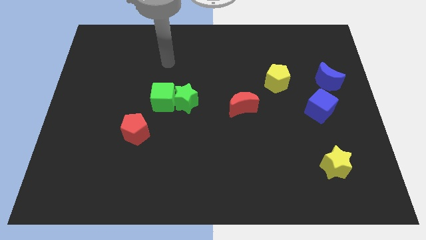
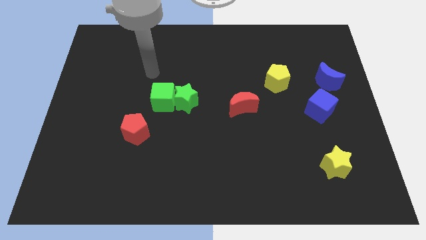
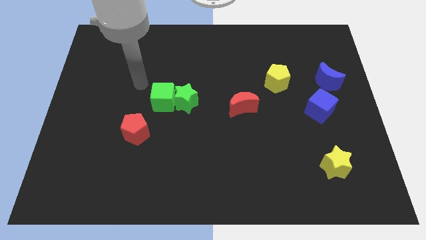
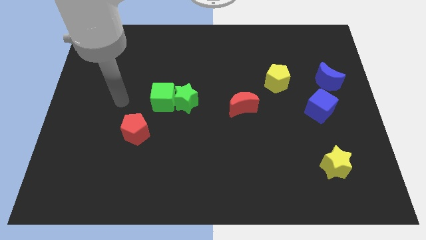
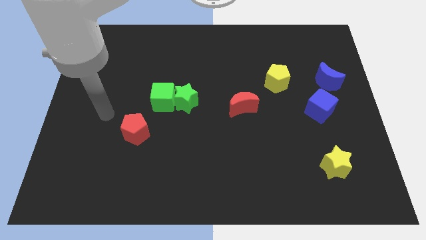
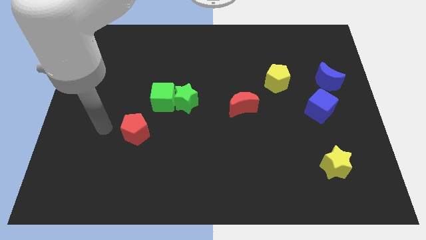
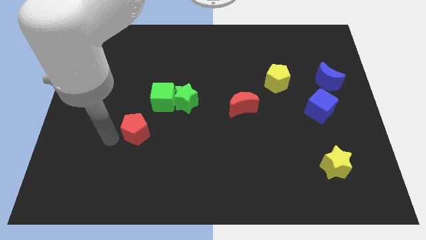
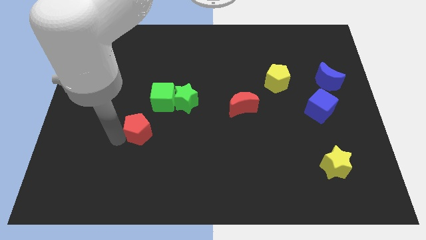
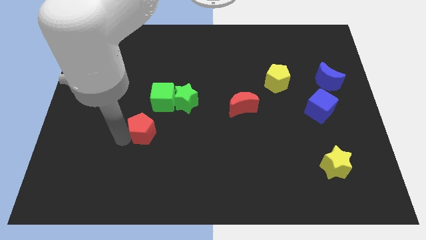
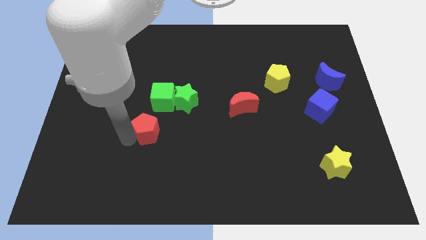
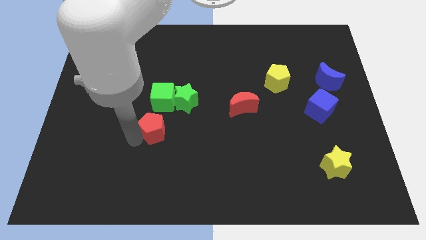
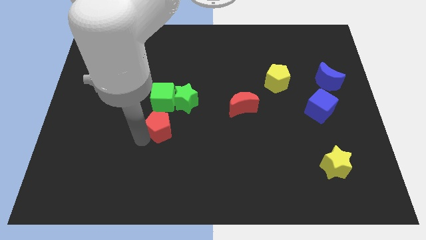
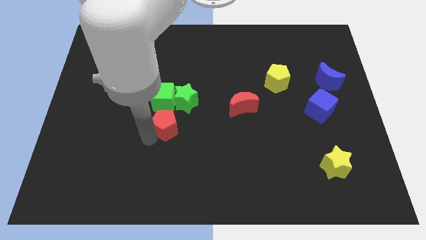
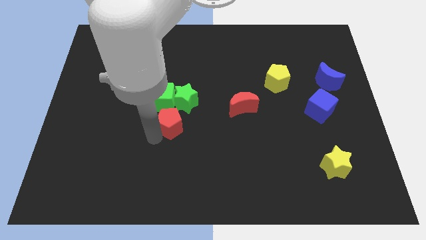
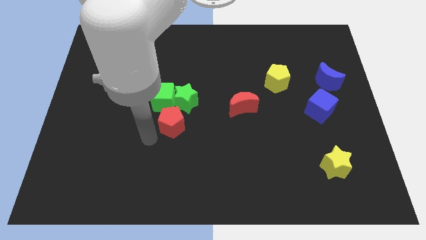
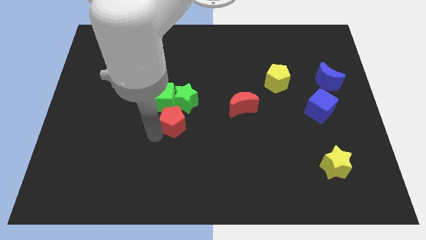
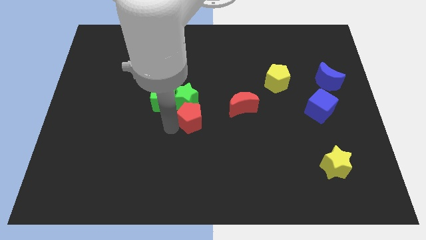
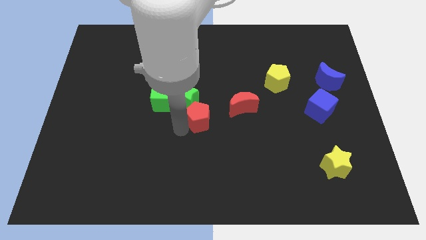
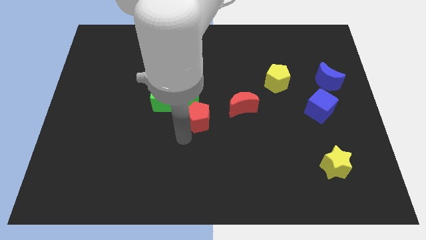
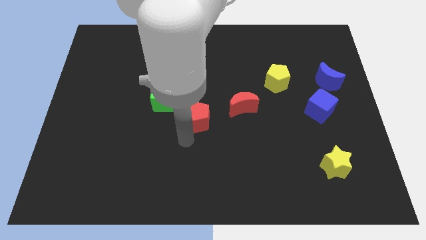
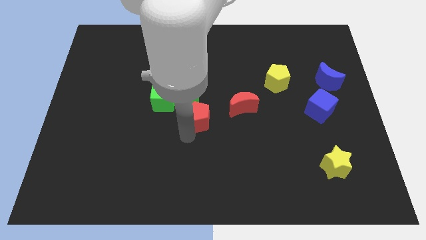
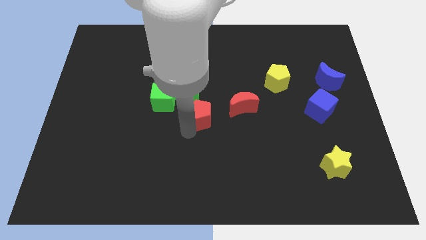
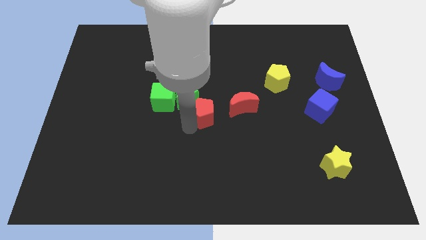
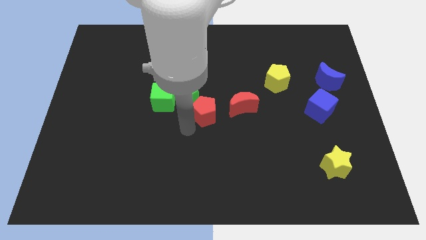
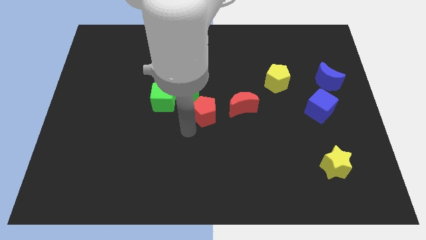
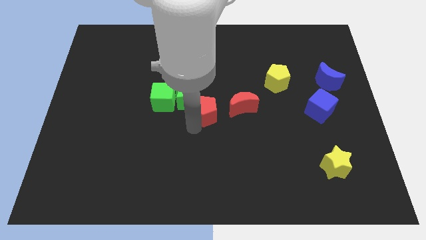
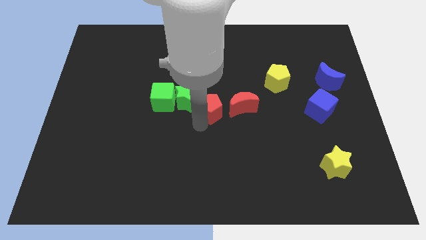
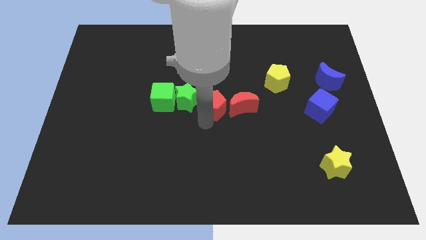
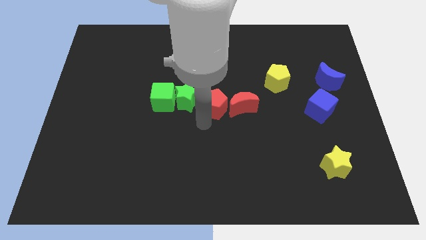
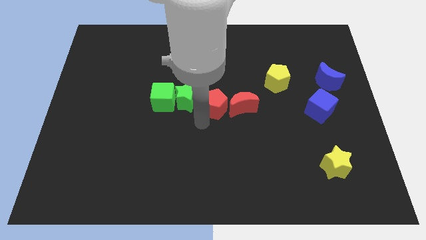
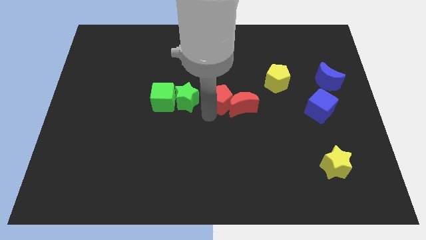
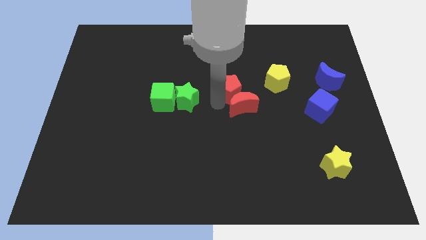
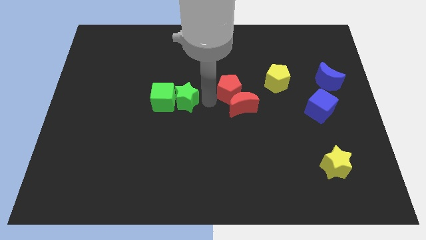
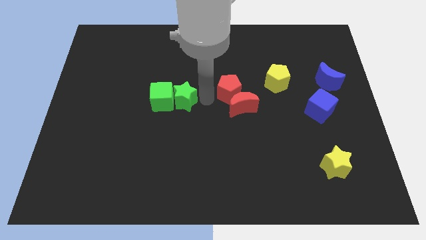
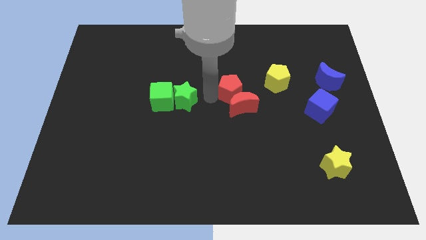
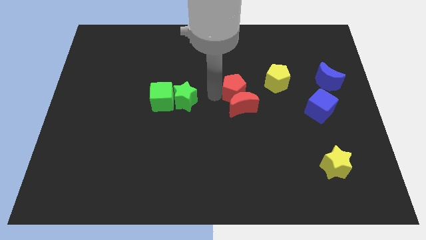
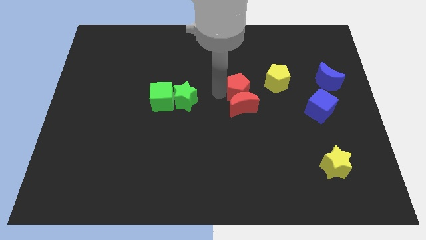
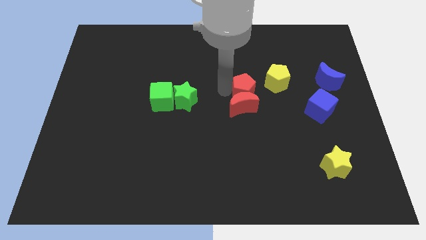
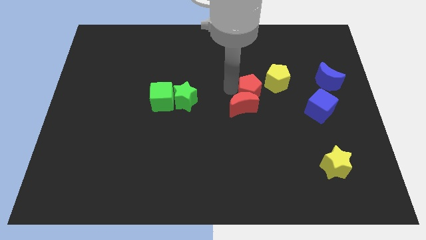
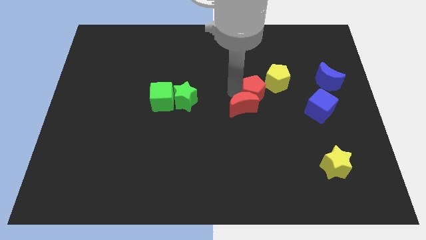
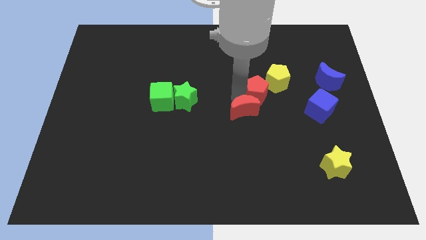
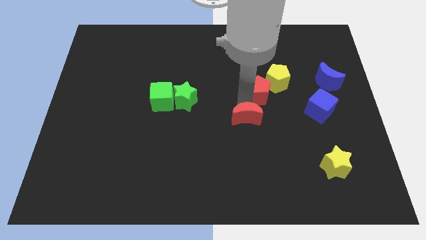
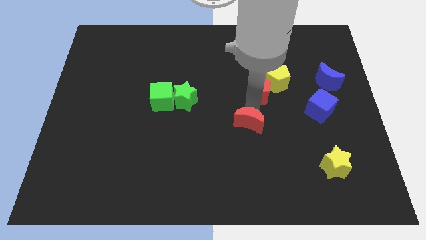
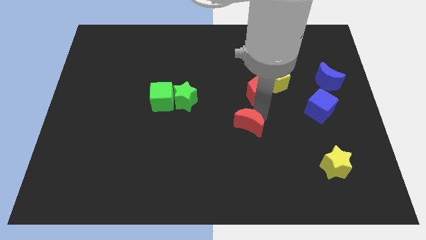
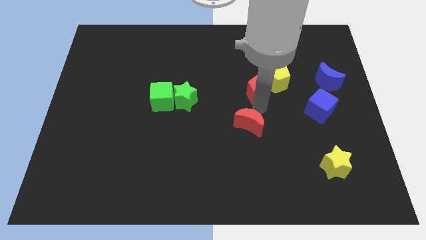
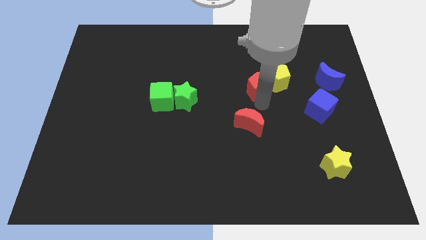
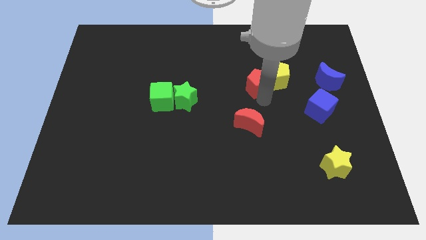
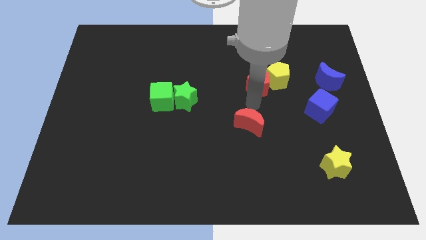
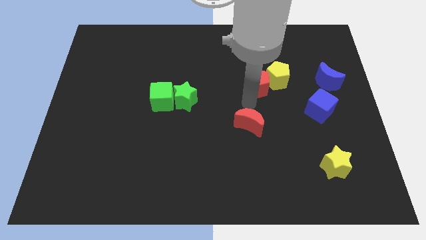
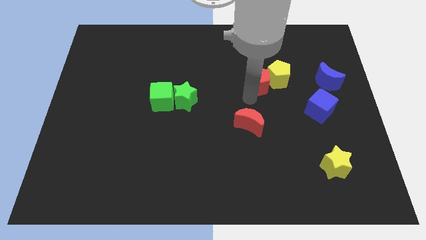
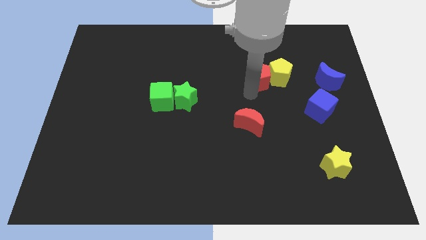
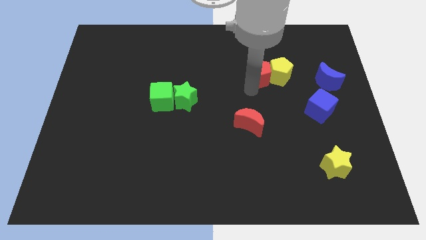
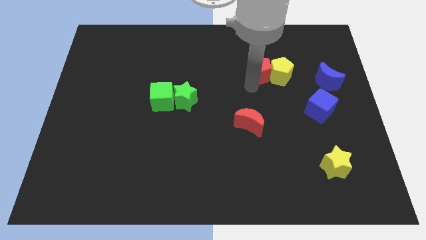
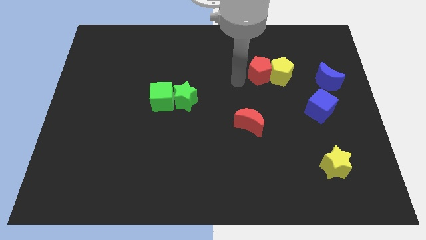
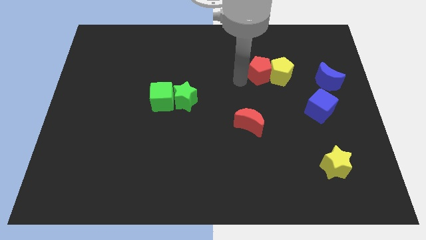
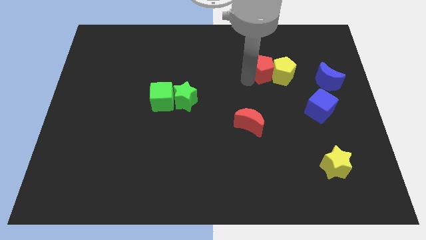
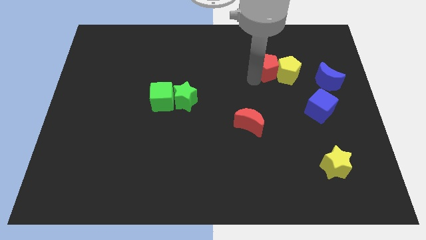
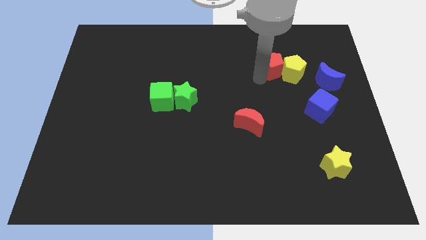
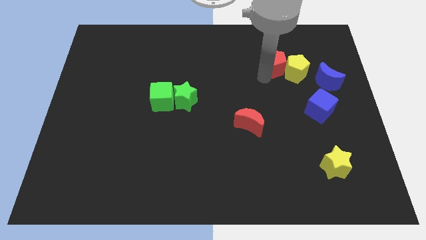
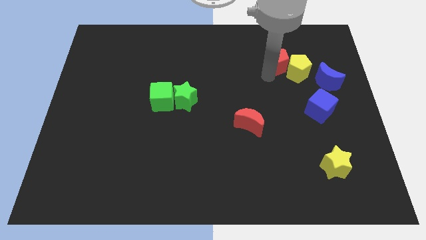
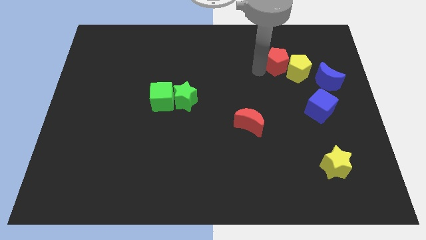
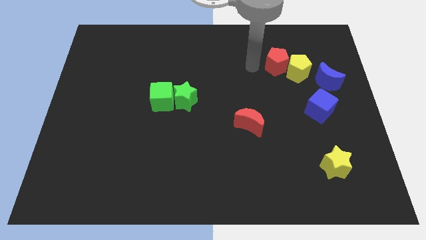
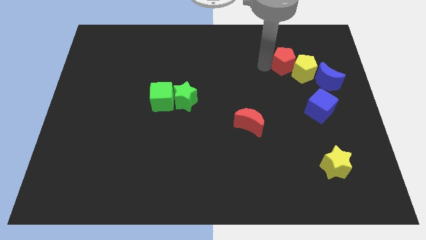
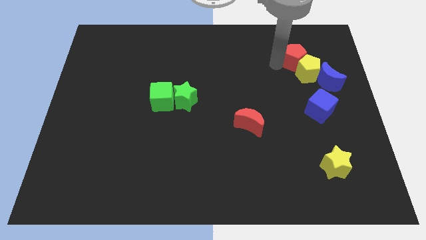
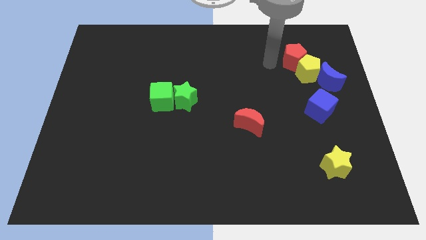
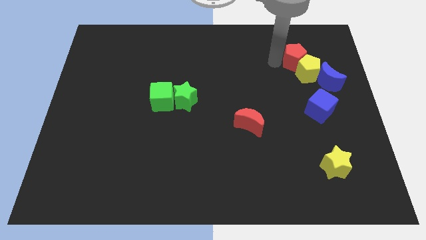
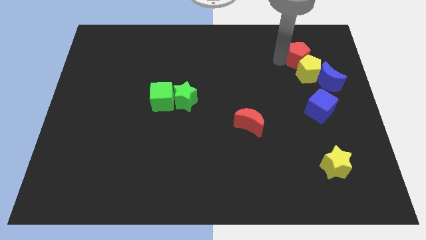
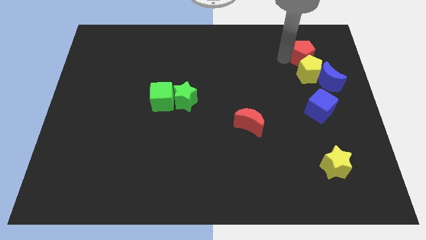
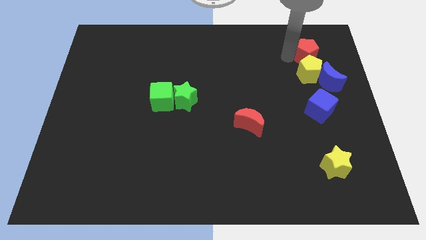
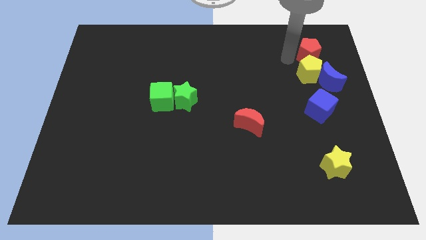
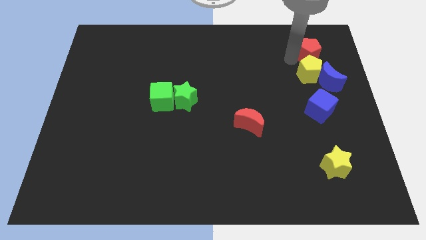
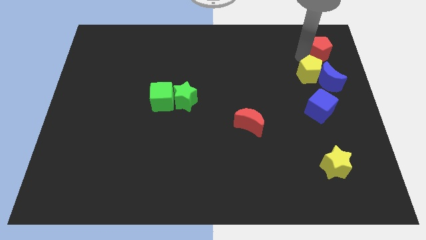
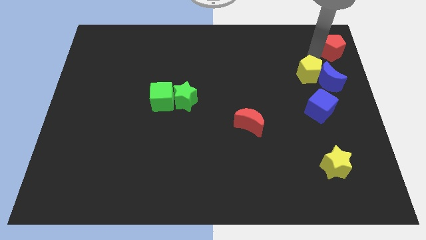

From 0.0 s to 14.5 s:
move the red pentagon to the top right corner
